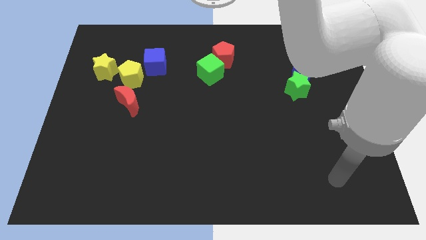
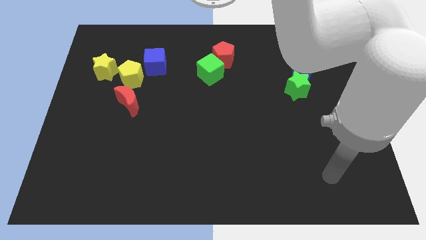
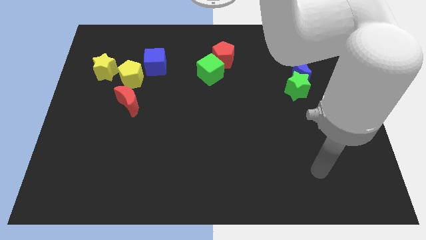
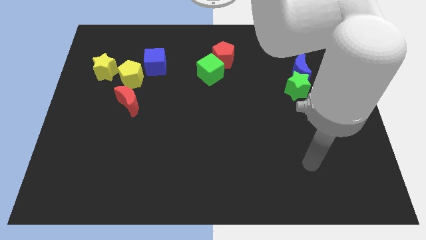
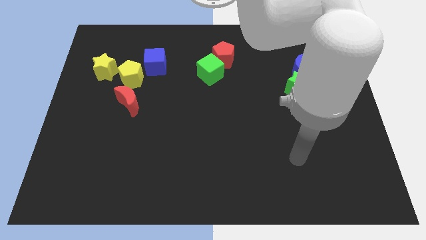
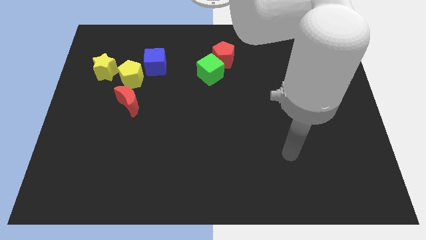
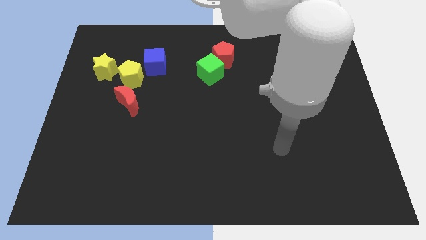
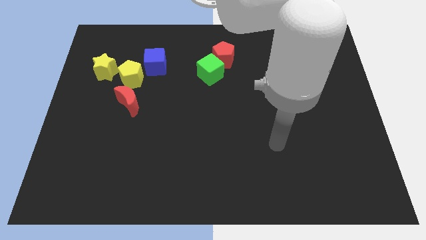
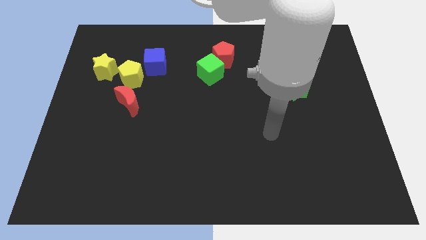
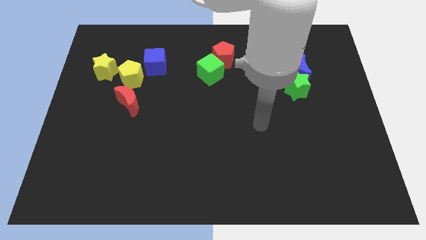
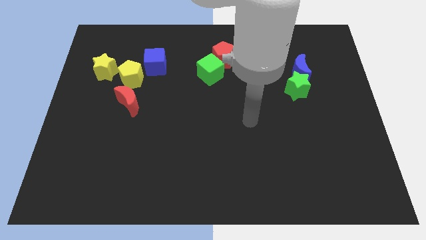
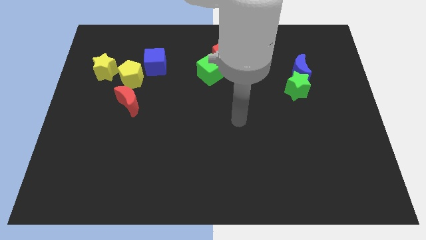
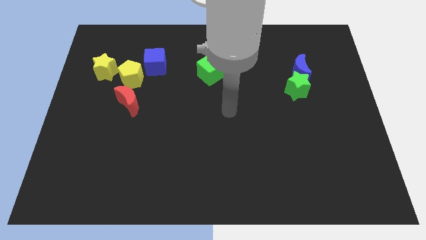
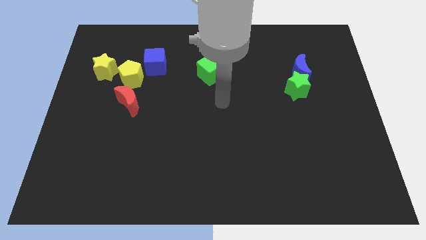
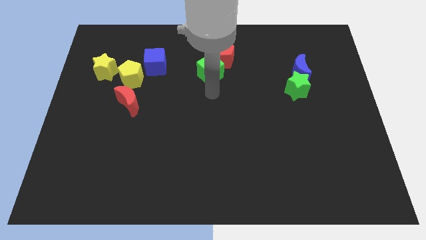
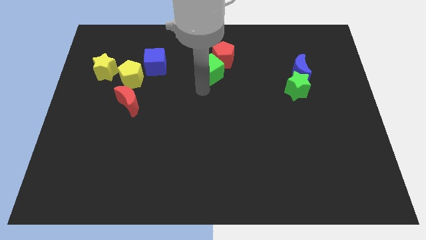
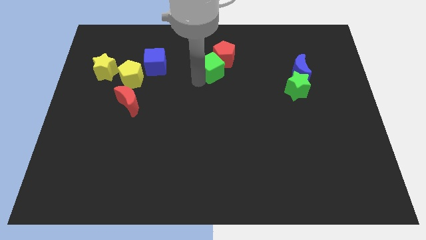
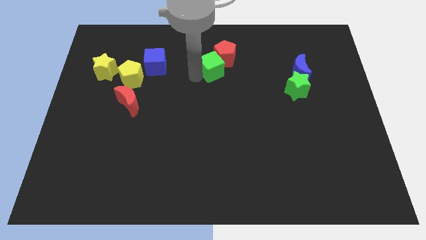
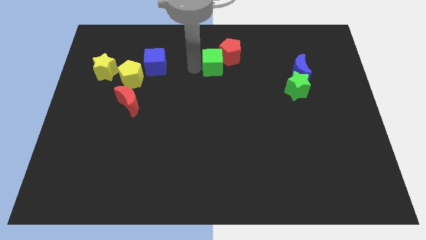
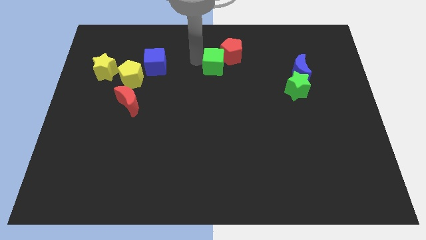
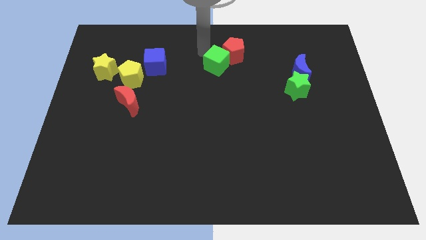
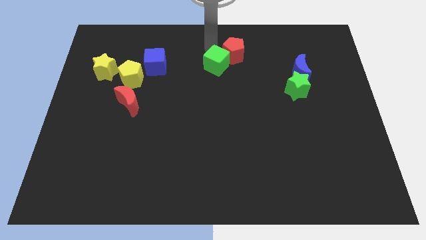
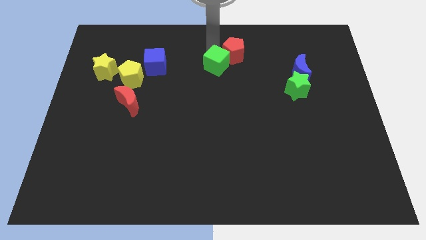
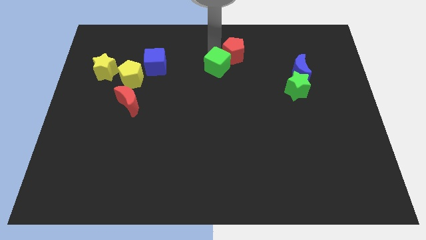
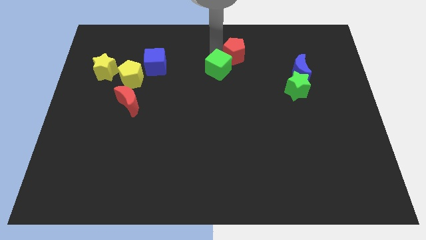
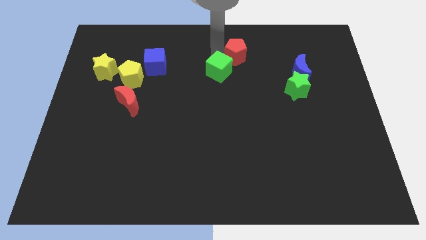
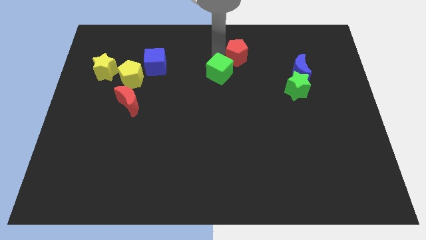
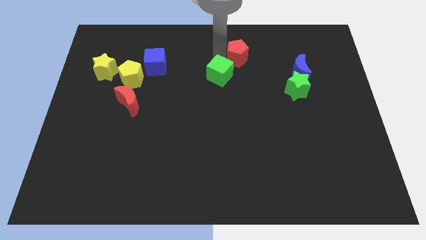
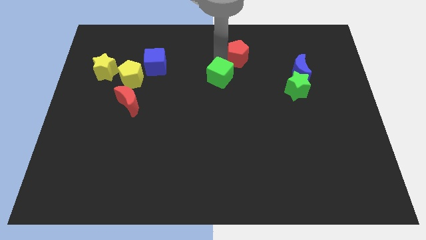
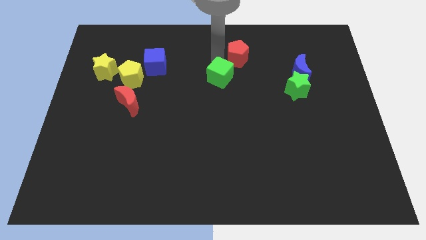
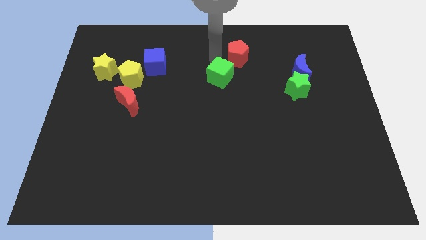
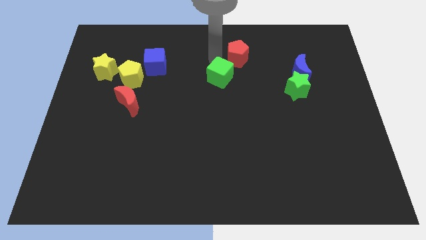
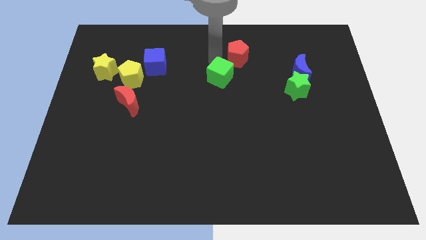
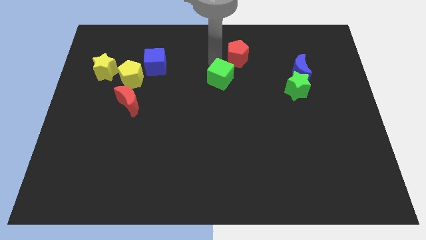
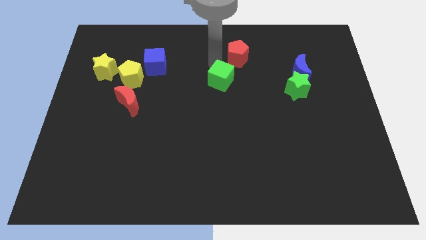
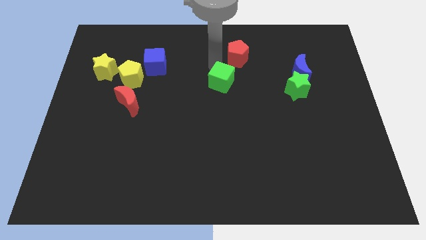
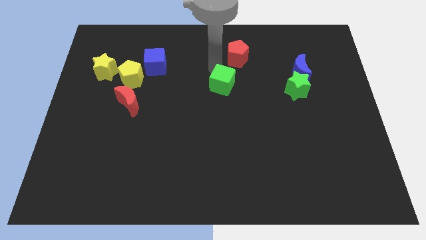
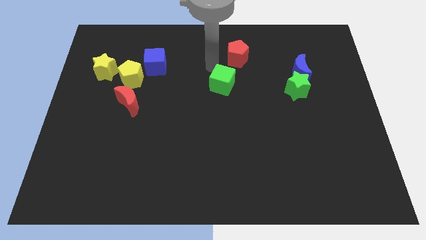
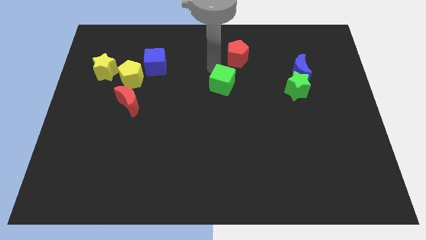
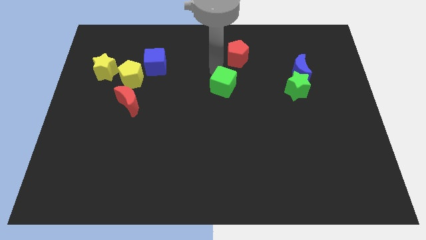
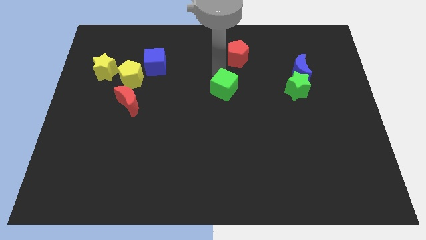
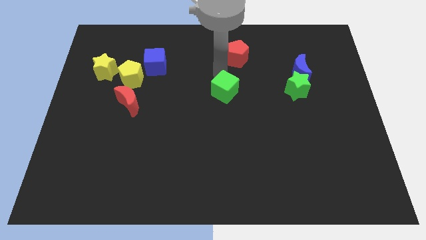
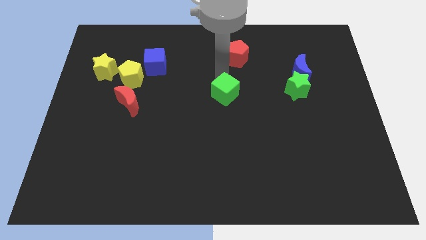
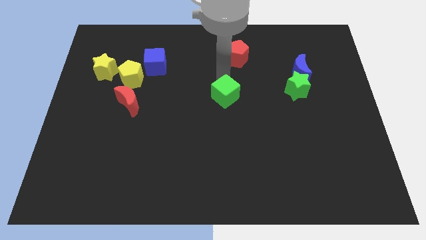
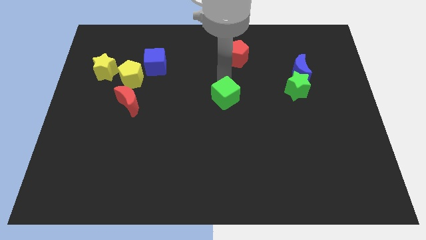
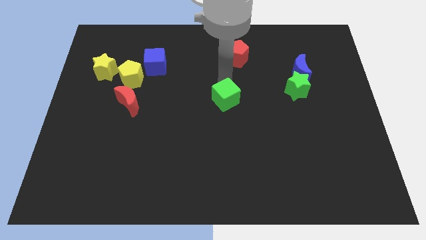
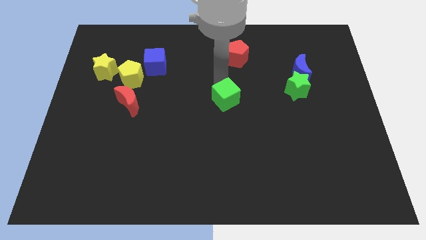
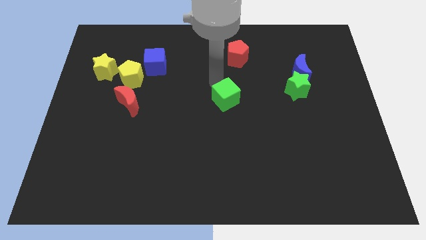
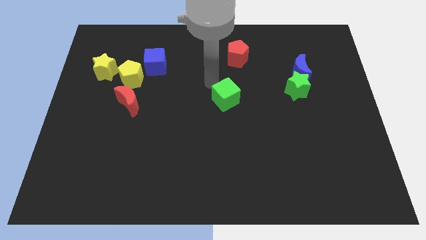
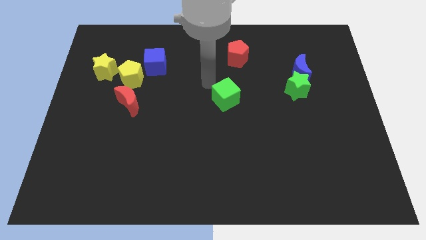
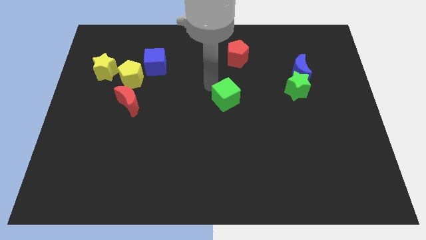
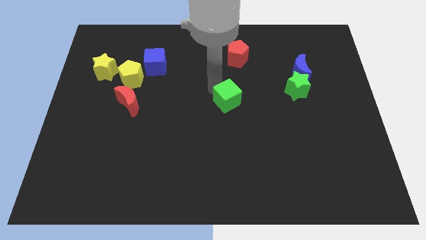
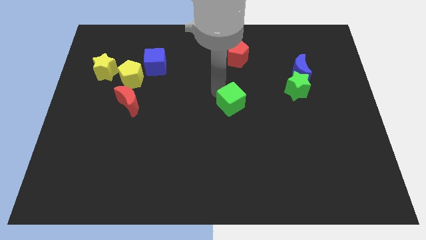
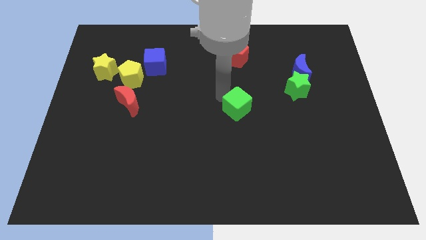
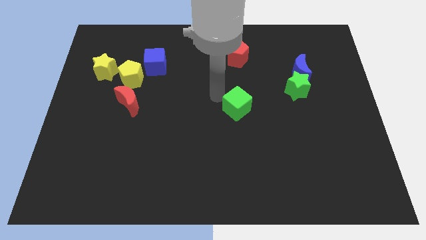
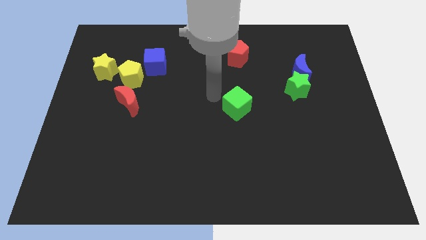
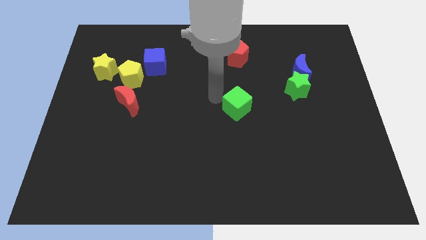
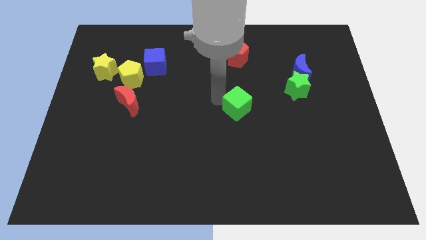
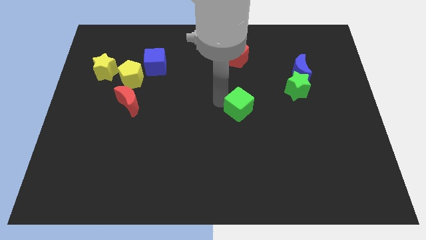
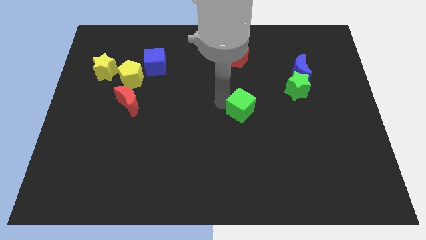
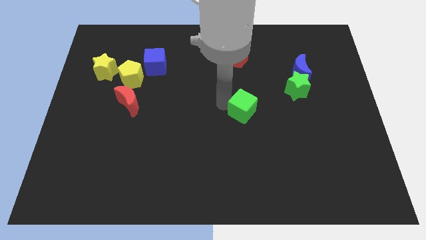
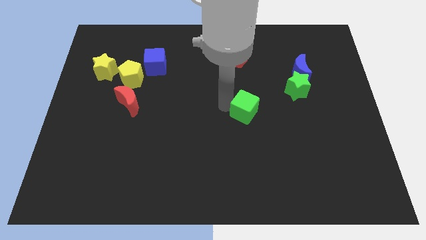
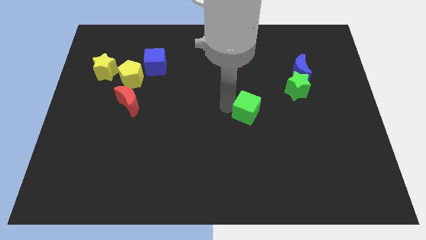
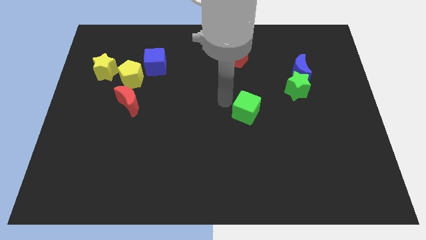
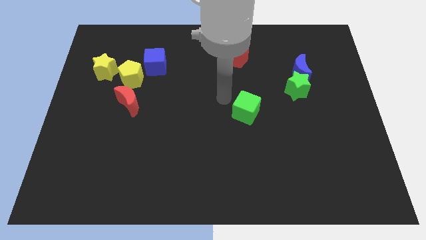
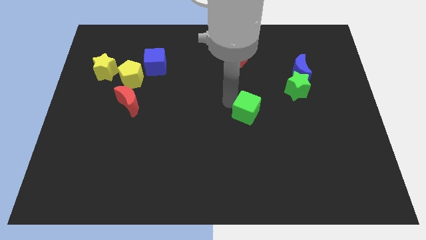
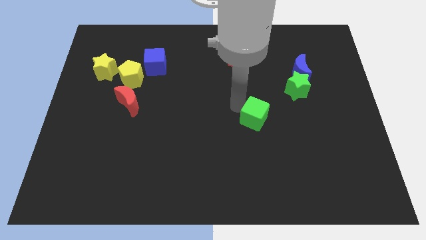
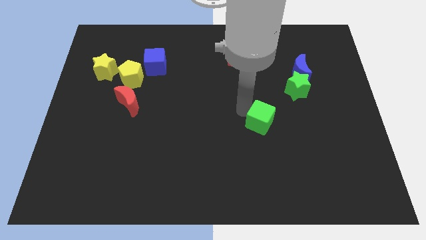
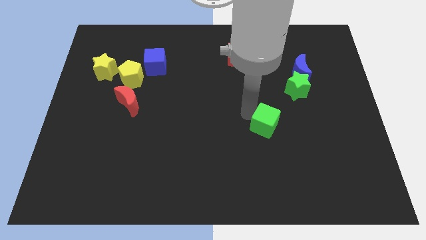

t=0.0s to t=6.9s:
move the green cube down and right diagonally

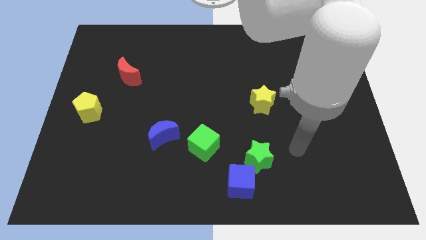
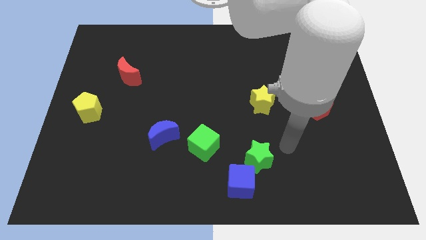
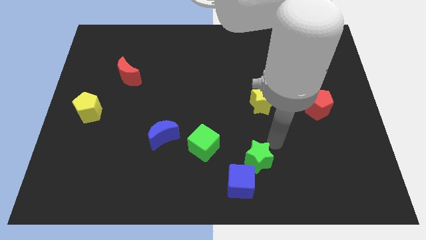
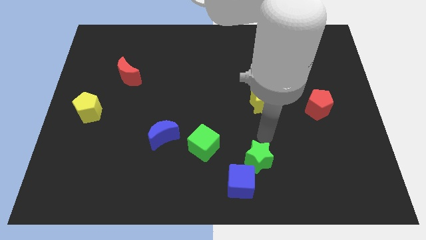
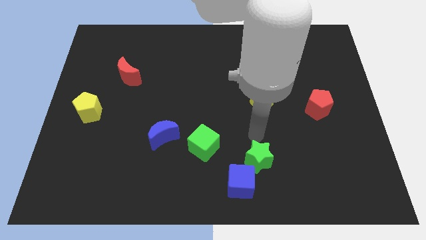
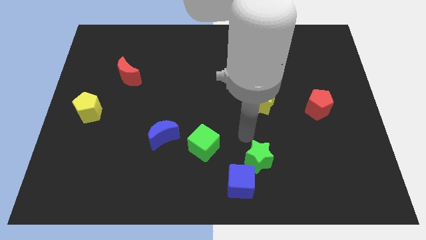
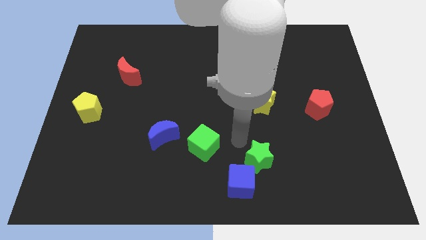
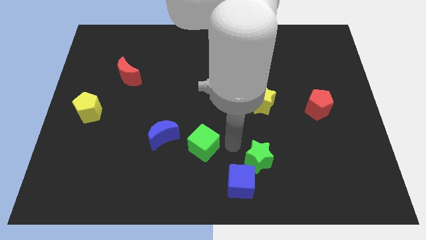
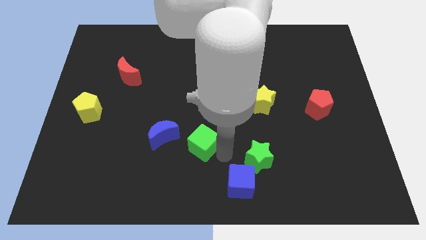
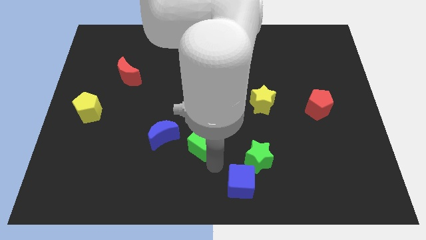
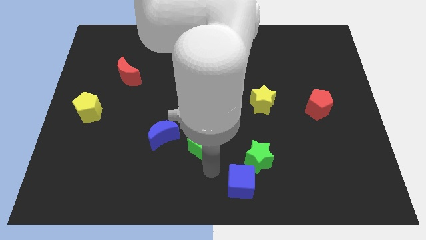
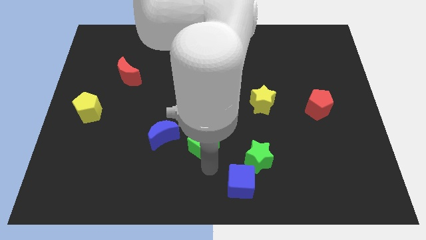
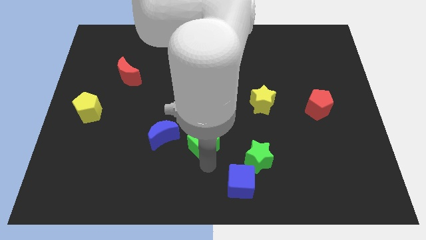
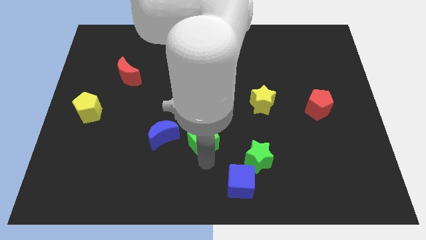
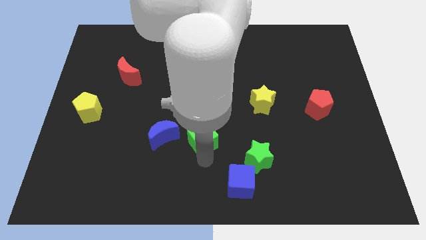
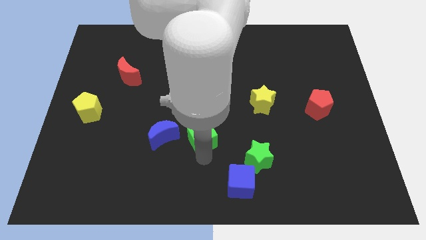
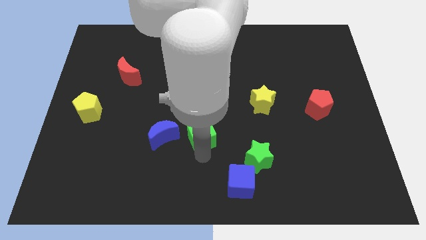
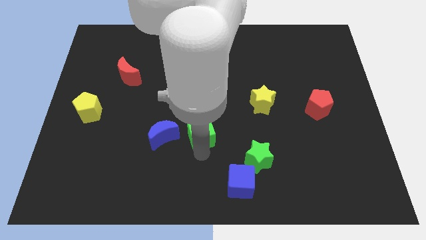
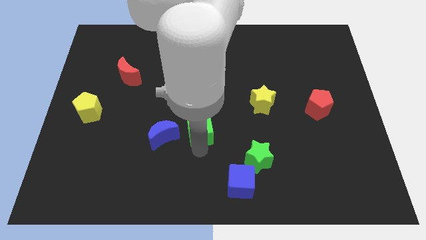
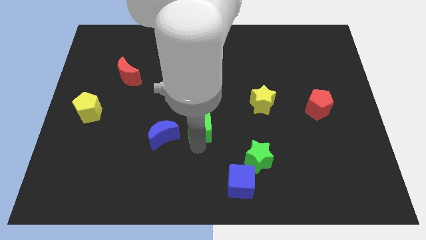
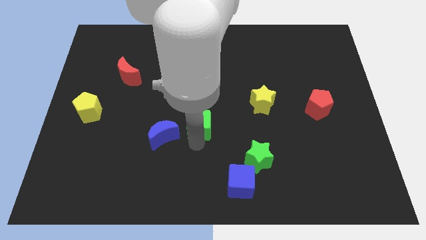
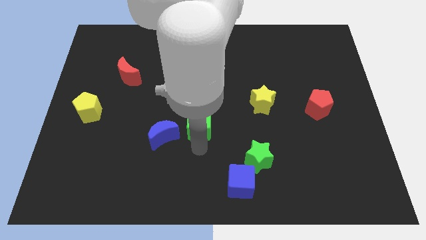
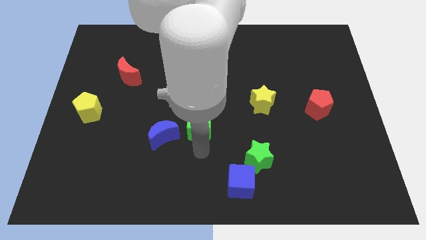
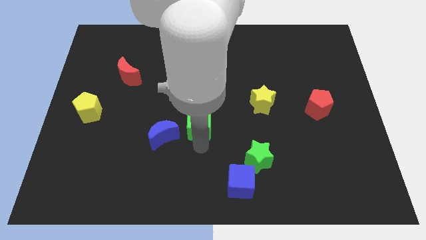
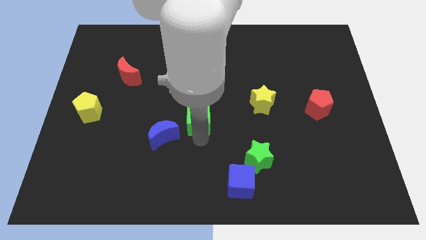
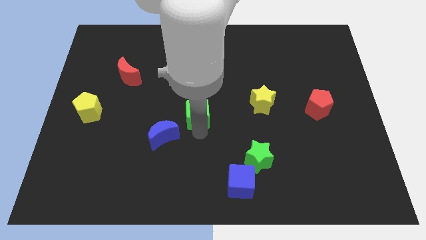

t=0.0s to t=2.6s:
slightly slide the green cube up
